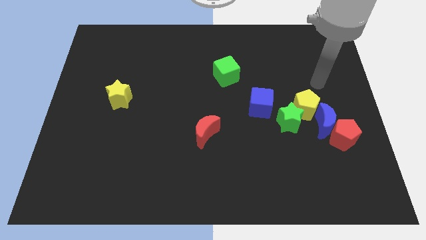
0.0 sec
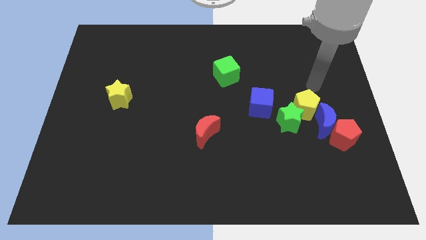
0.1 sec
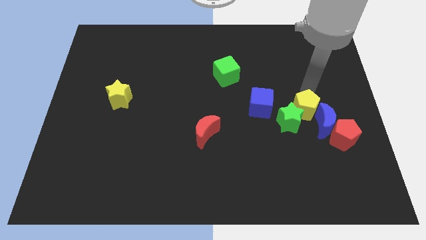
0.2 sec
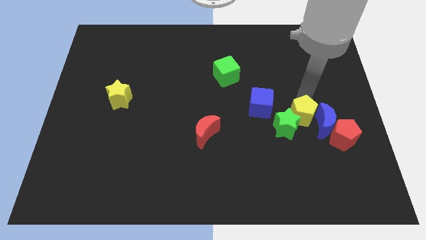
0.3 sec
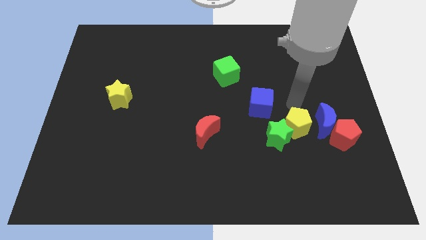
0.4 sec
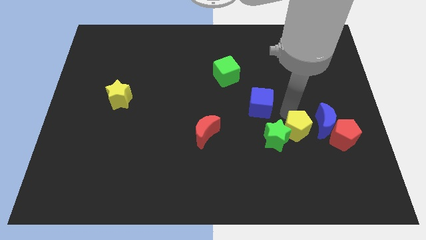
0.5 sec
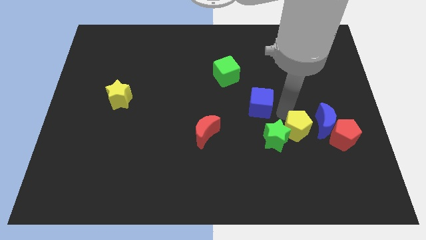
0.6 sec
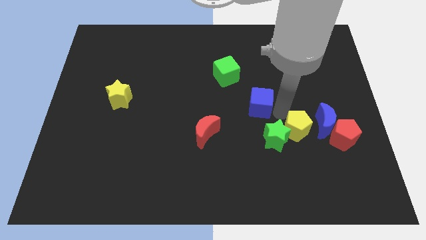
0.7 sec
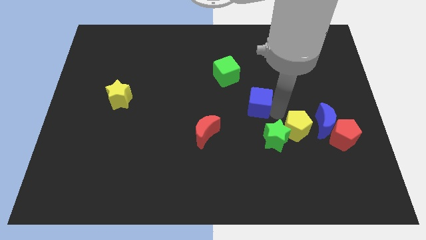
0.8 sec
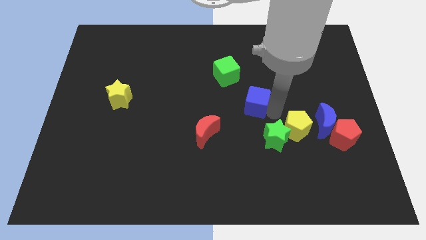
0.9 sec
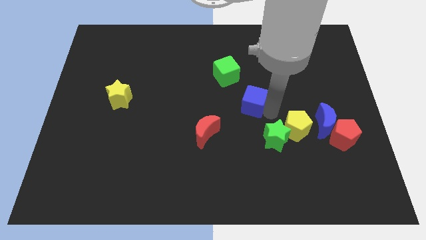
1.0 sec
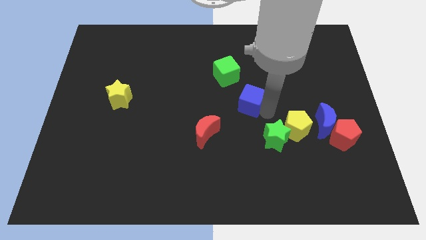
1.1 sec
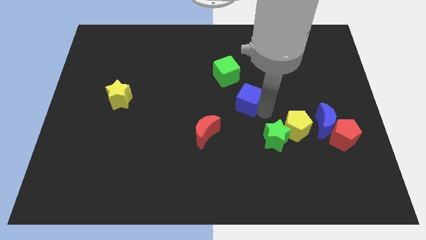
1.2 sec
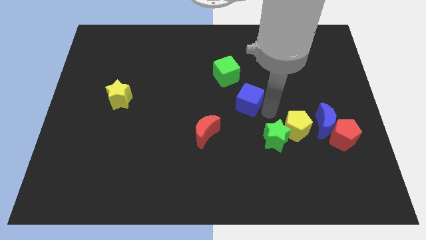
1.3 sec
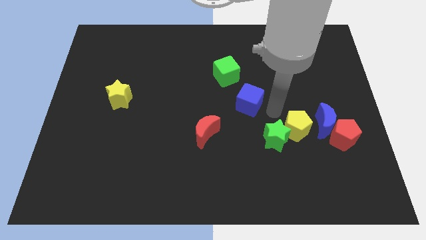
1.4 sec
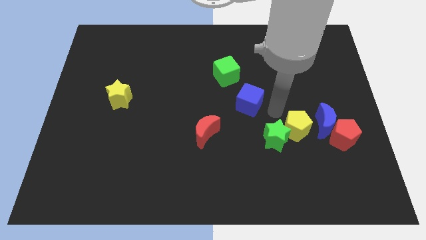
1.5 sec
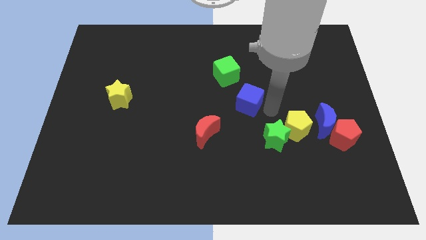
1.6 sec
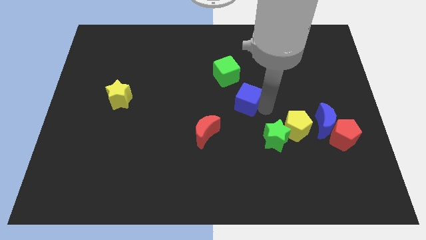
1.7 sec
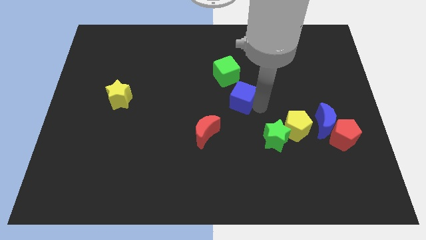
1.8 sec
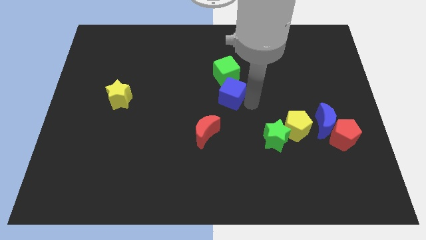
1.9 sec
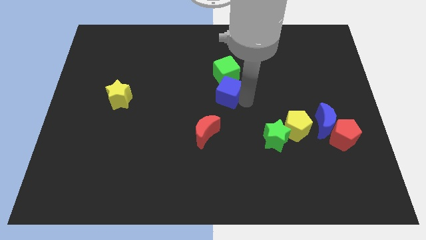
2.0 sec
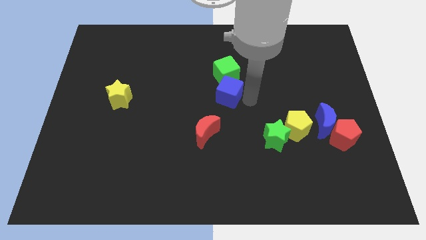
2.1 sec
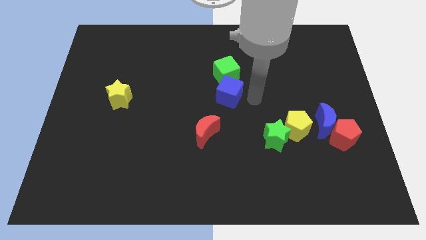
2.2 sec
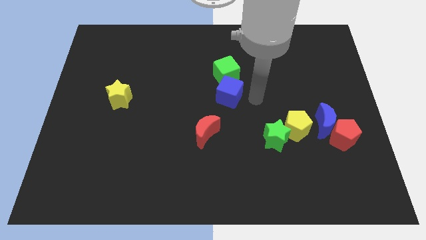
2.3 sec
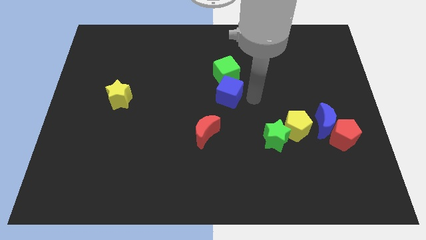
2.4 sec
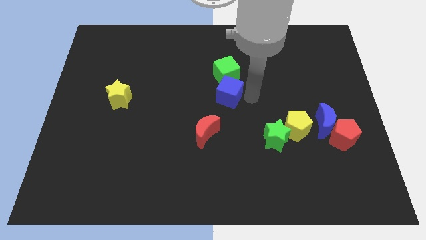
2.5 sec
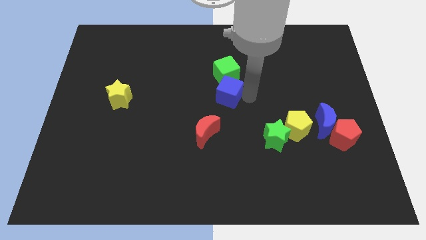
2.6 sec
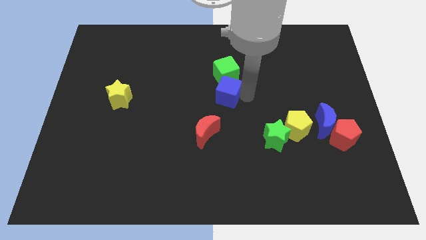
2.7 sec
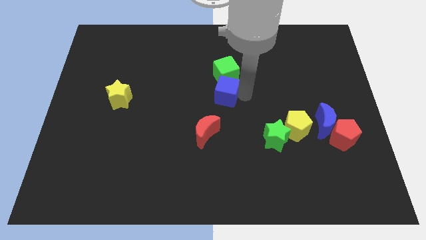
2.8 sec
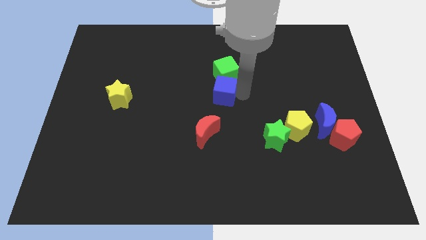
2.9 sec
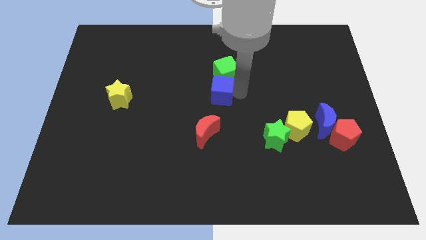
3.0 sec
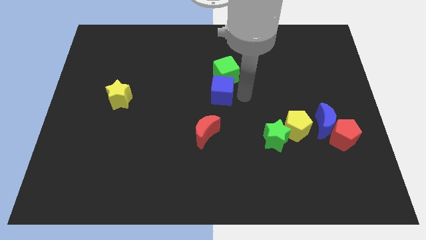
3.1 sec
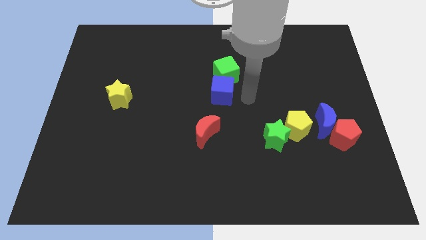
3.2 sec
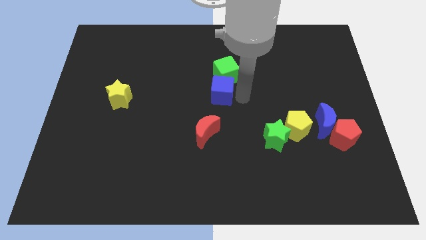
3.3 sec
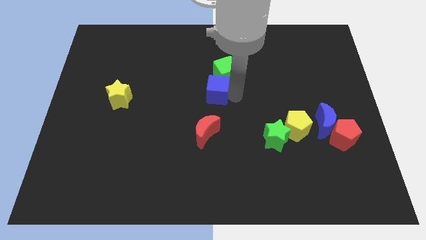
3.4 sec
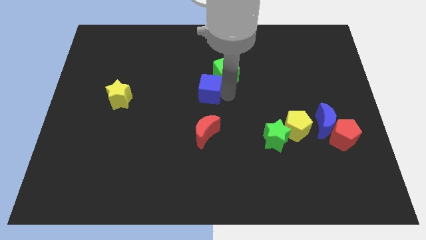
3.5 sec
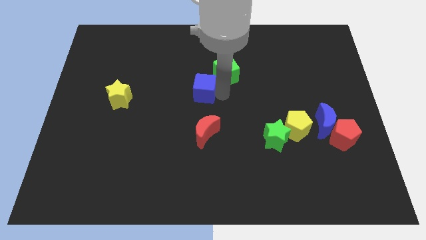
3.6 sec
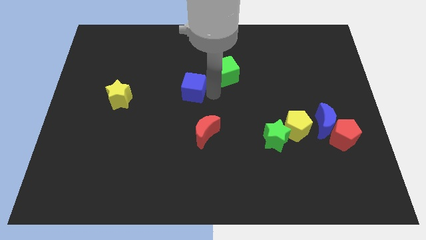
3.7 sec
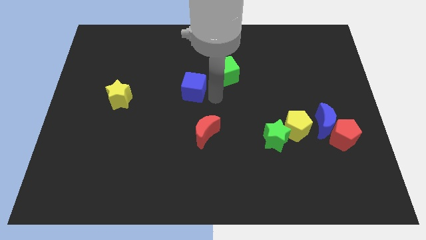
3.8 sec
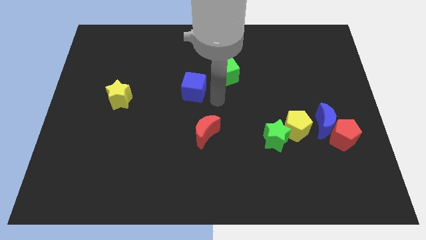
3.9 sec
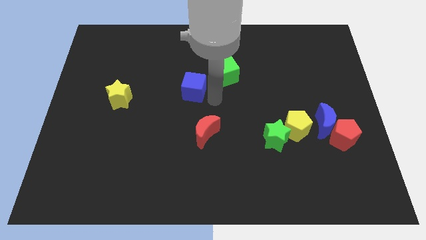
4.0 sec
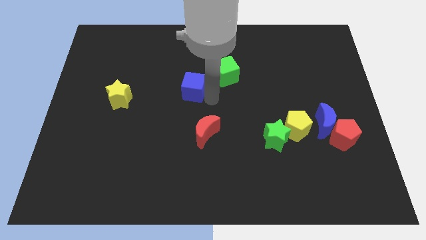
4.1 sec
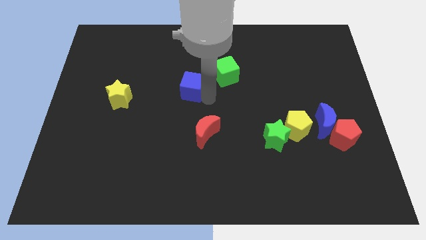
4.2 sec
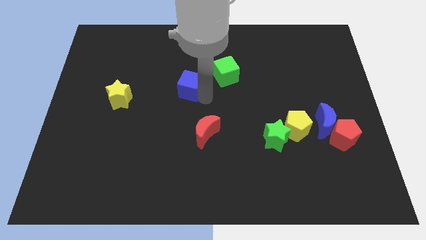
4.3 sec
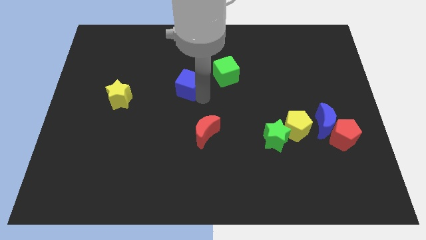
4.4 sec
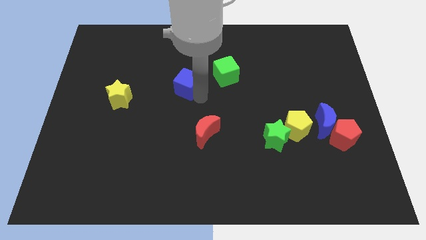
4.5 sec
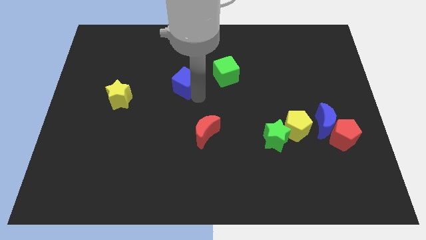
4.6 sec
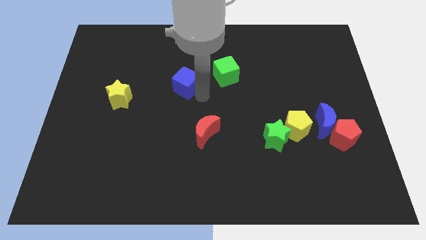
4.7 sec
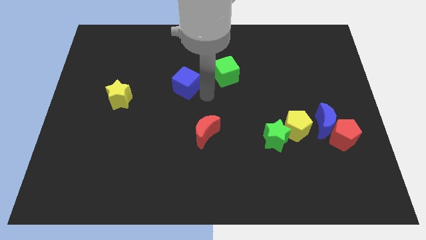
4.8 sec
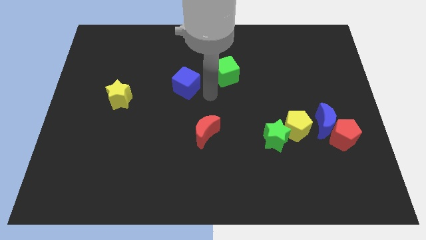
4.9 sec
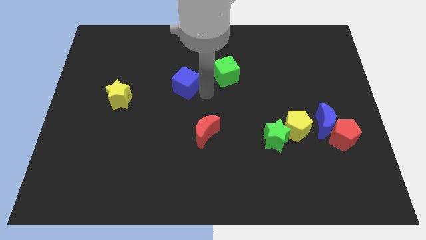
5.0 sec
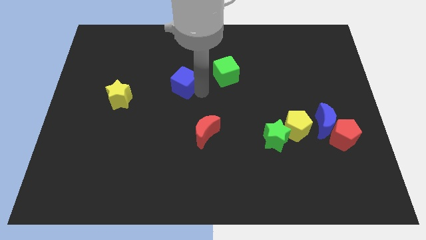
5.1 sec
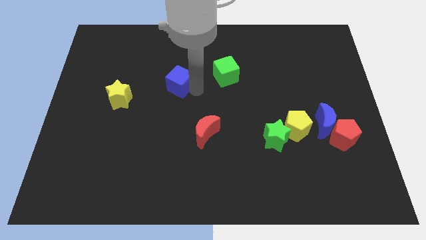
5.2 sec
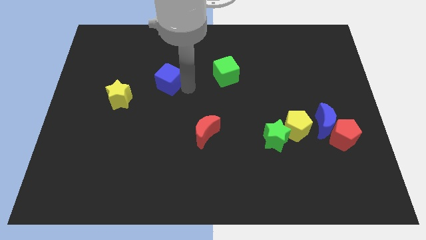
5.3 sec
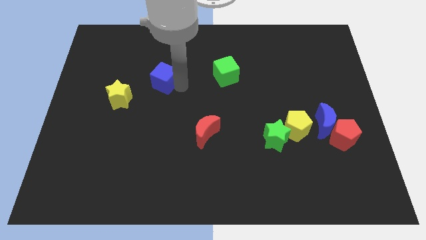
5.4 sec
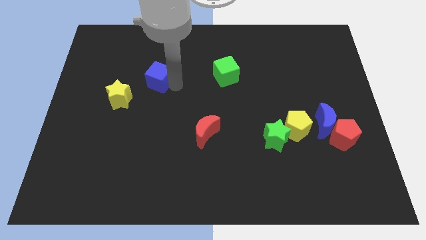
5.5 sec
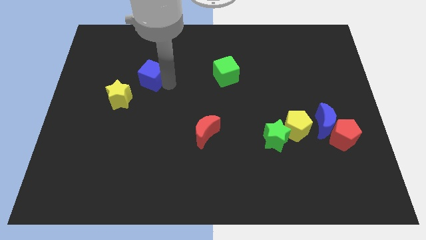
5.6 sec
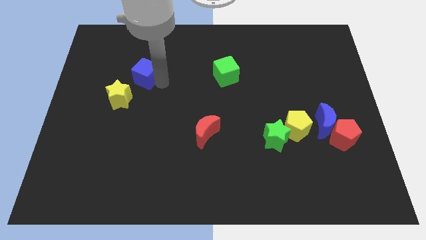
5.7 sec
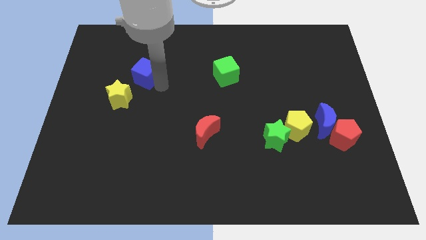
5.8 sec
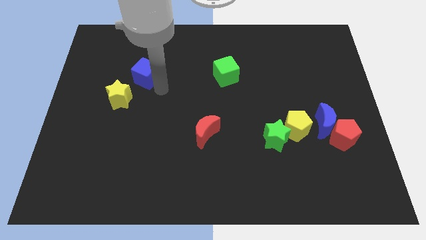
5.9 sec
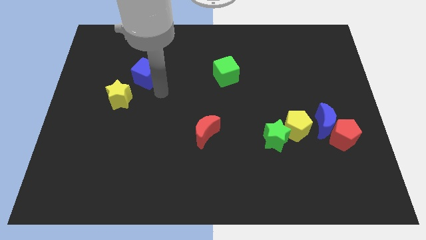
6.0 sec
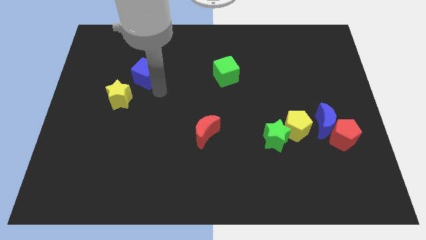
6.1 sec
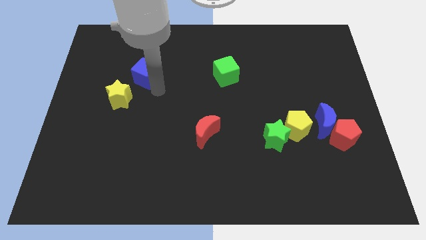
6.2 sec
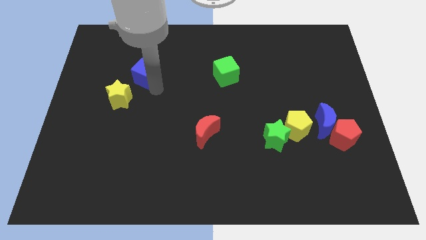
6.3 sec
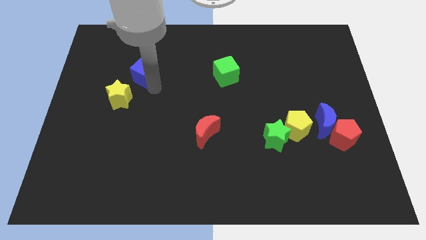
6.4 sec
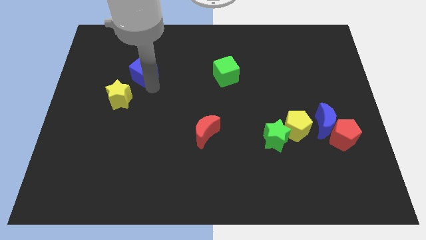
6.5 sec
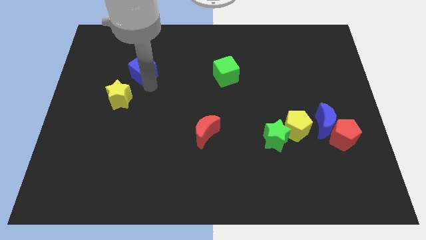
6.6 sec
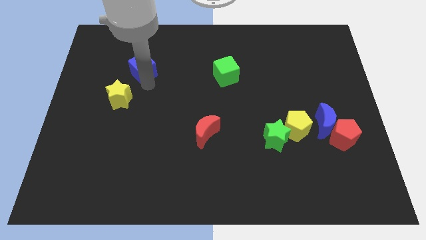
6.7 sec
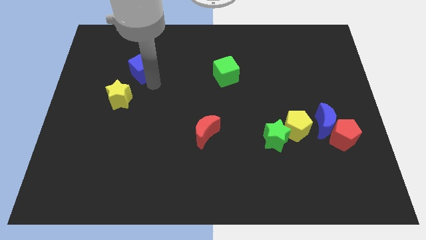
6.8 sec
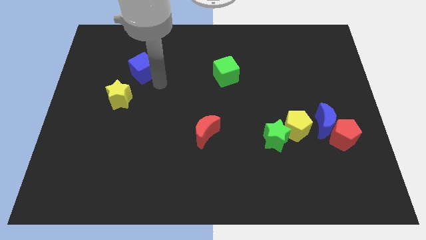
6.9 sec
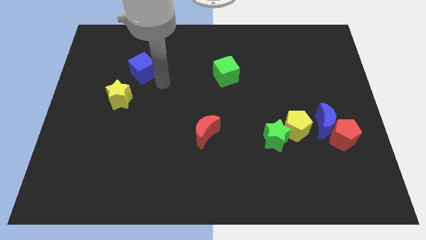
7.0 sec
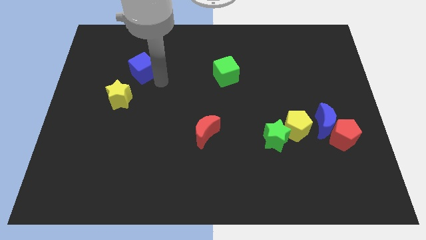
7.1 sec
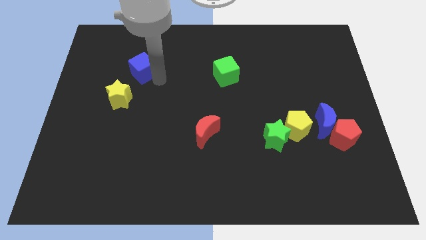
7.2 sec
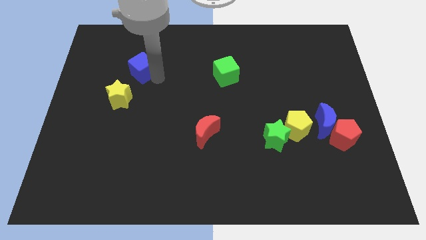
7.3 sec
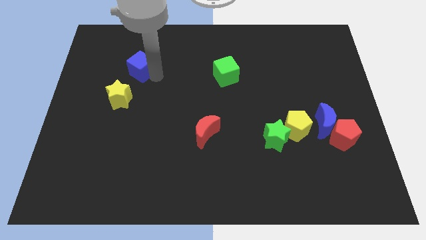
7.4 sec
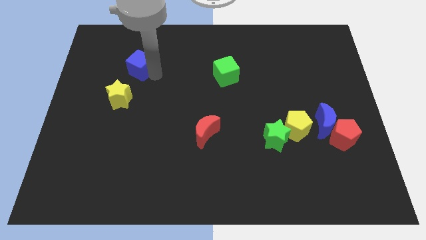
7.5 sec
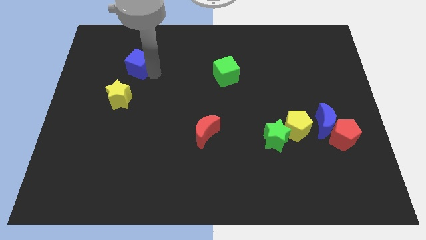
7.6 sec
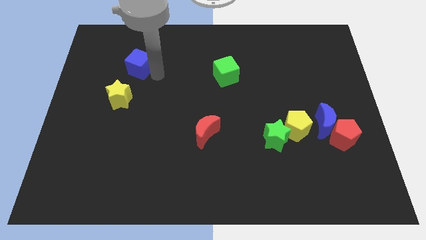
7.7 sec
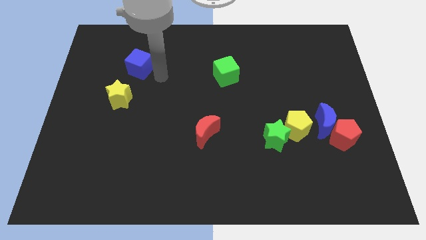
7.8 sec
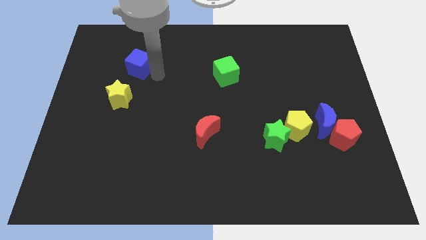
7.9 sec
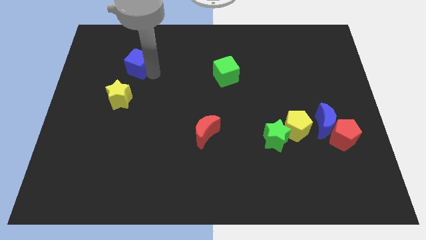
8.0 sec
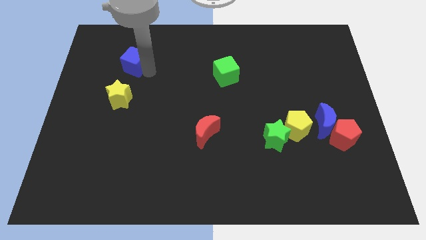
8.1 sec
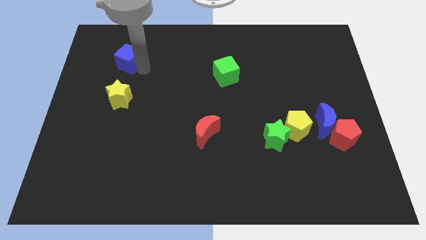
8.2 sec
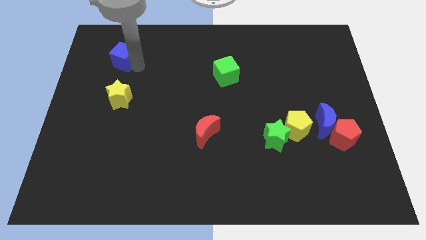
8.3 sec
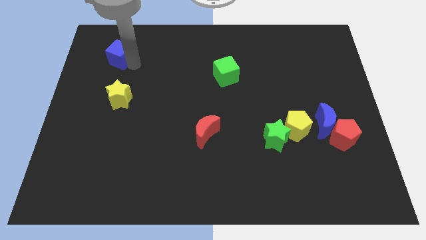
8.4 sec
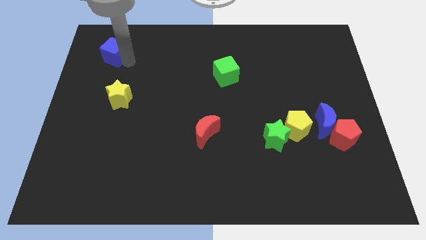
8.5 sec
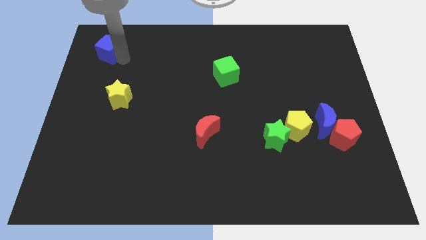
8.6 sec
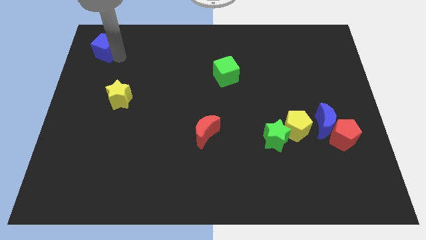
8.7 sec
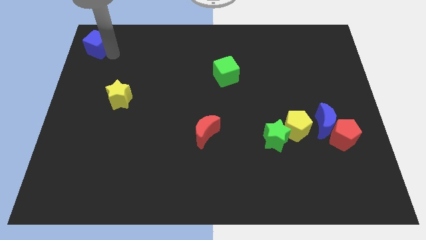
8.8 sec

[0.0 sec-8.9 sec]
move the blue cube to the top left
